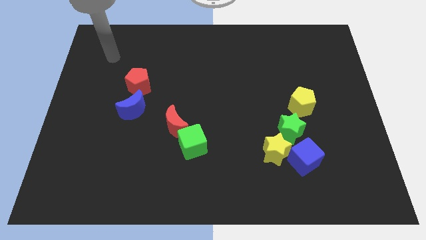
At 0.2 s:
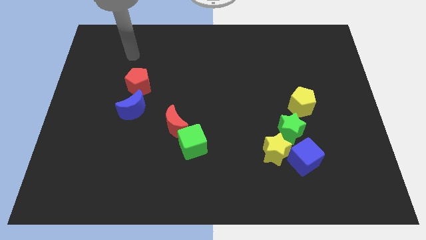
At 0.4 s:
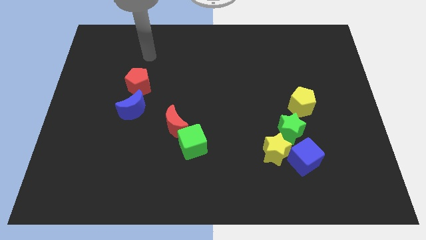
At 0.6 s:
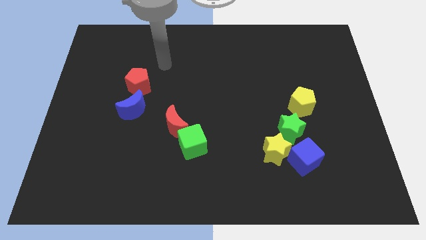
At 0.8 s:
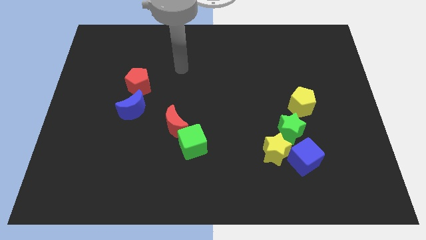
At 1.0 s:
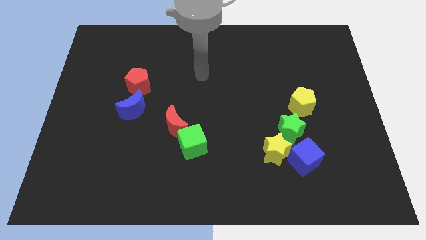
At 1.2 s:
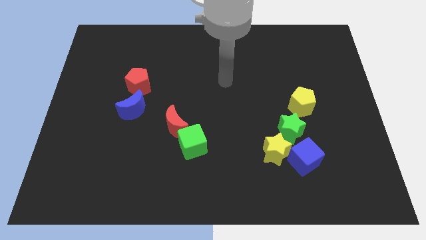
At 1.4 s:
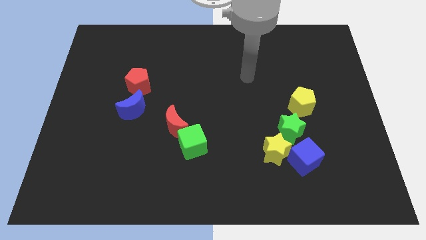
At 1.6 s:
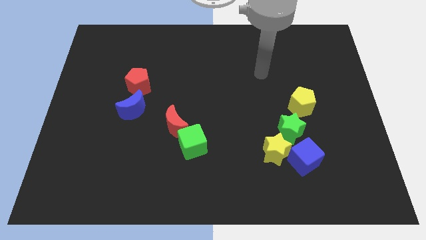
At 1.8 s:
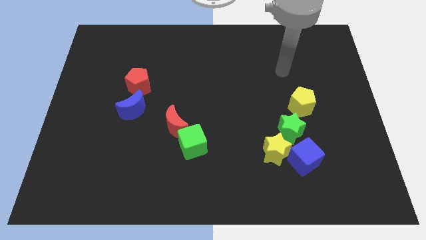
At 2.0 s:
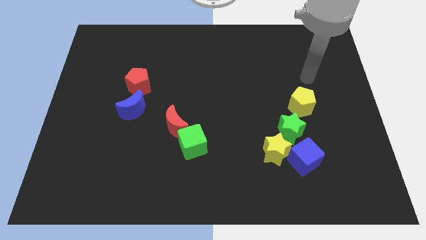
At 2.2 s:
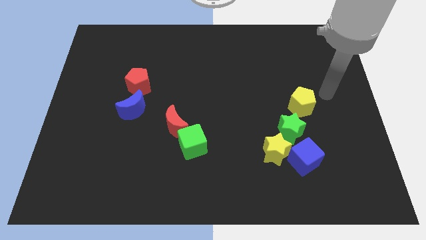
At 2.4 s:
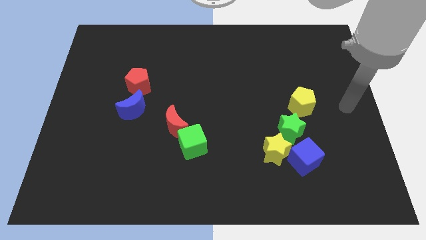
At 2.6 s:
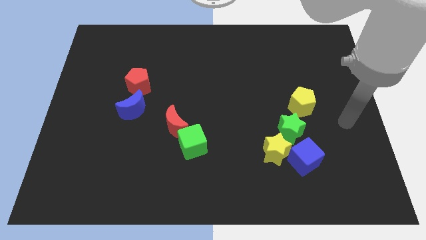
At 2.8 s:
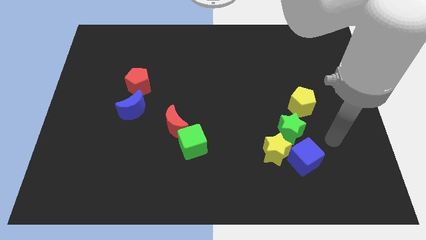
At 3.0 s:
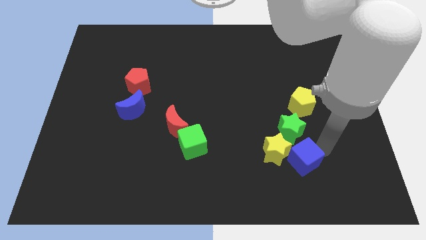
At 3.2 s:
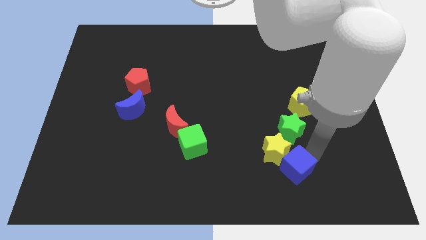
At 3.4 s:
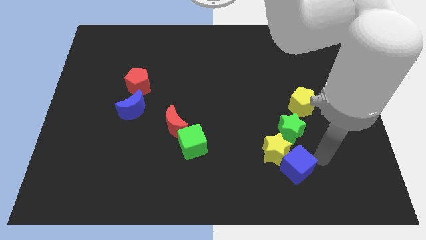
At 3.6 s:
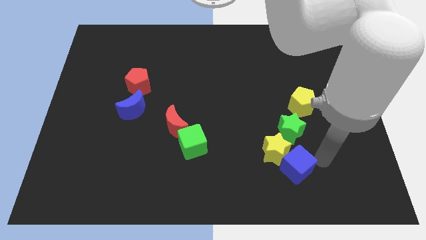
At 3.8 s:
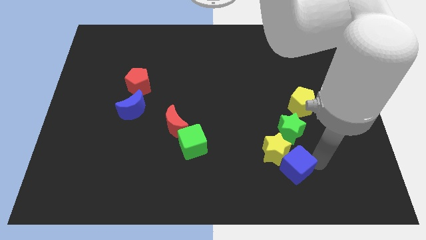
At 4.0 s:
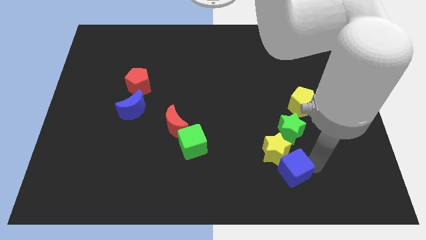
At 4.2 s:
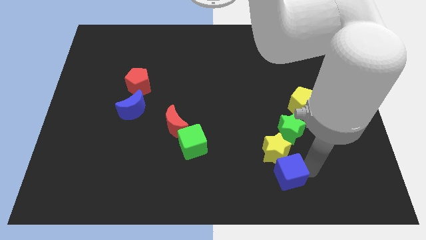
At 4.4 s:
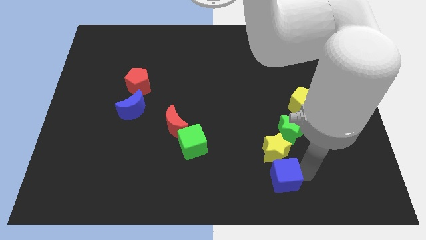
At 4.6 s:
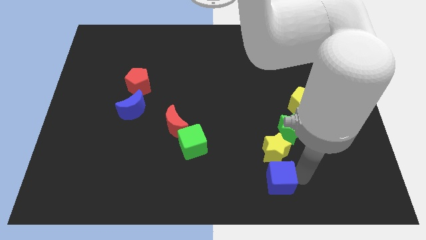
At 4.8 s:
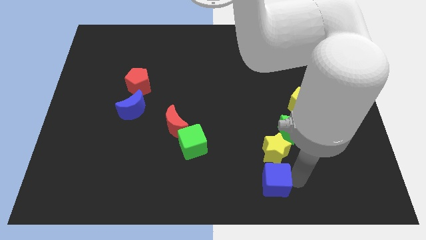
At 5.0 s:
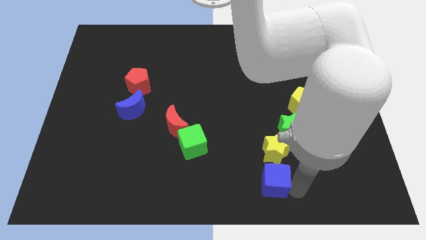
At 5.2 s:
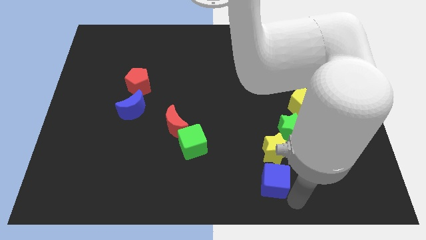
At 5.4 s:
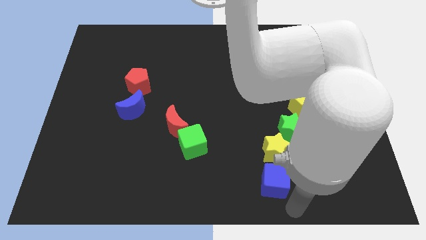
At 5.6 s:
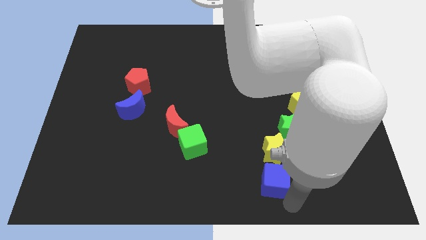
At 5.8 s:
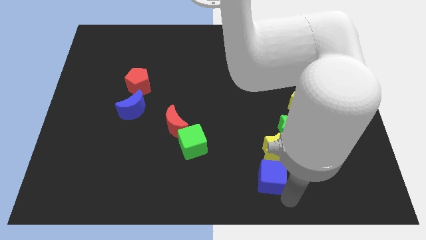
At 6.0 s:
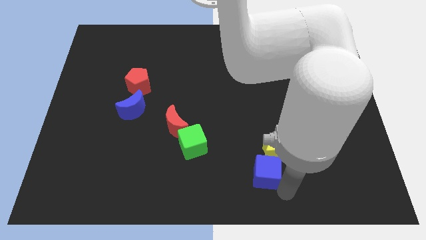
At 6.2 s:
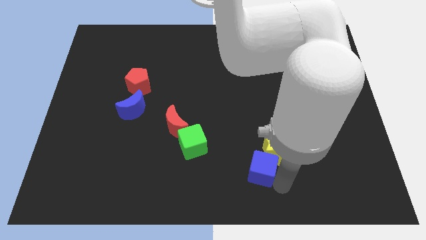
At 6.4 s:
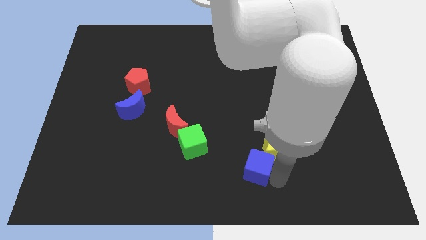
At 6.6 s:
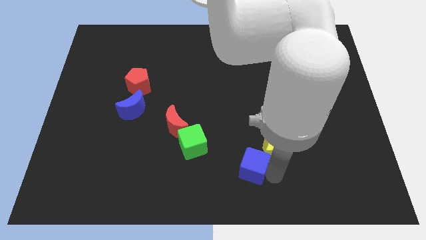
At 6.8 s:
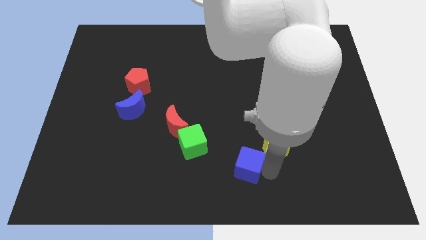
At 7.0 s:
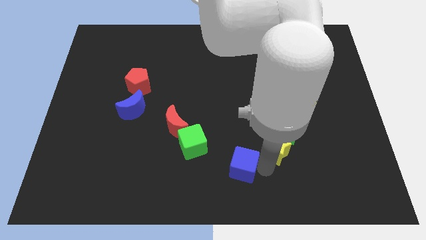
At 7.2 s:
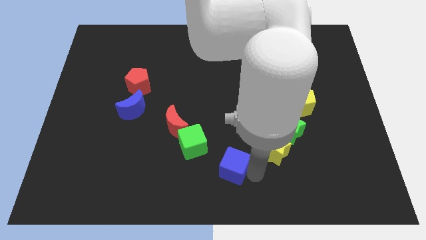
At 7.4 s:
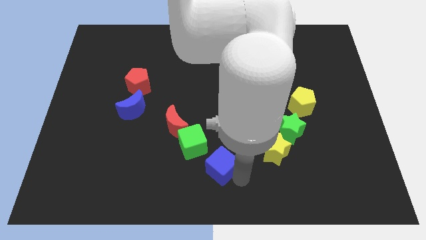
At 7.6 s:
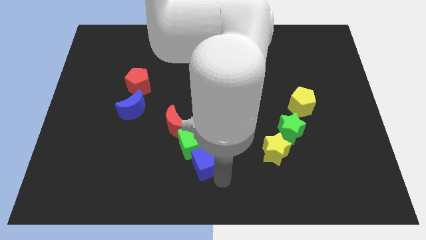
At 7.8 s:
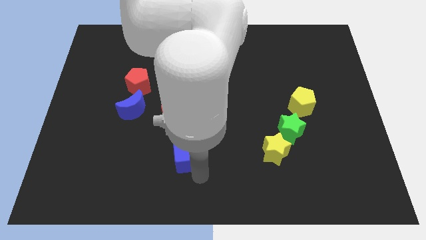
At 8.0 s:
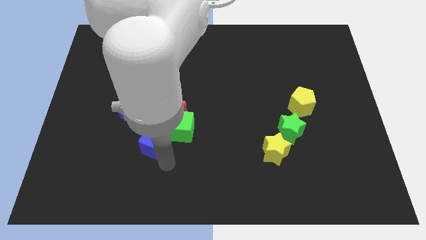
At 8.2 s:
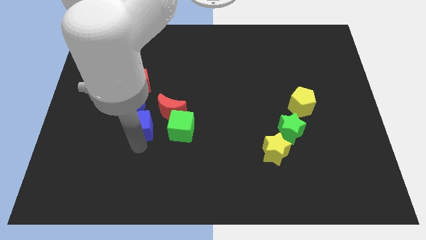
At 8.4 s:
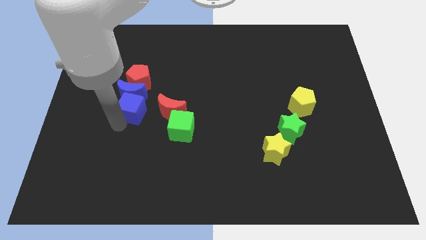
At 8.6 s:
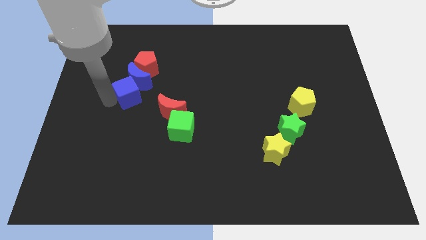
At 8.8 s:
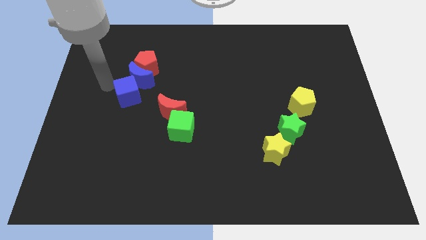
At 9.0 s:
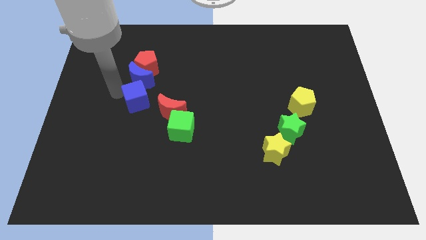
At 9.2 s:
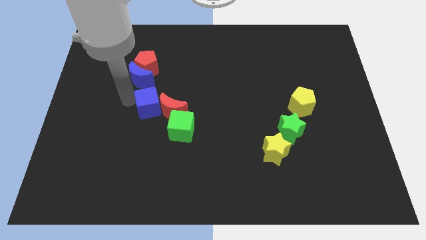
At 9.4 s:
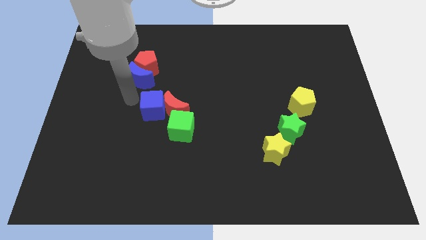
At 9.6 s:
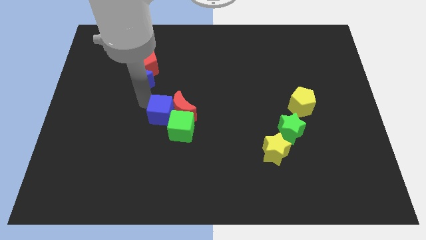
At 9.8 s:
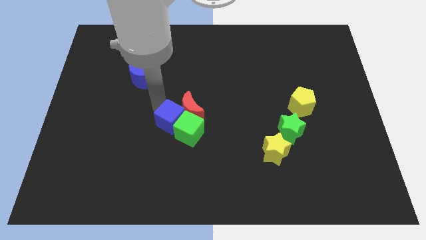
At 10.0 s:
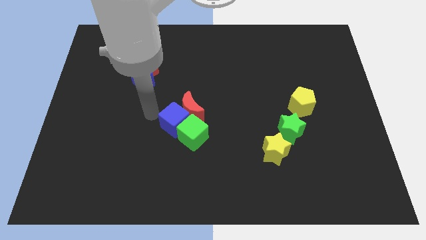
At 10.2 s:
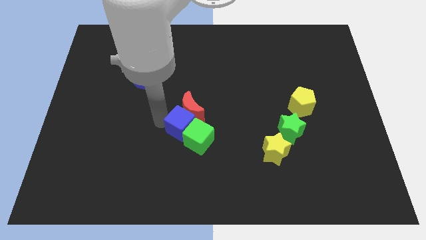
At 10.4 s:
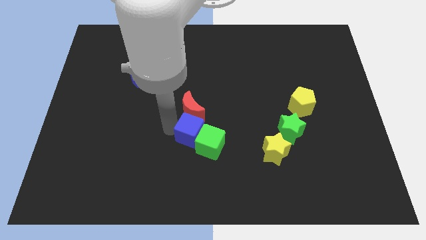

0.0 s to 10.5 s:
slide the blue cube a bit up and left diagonally

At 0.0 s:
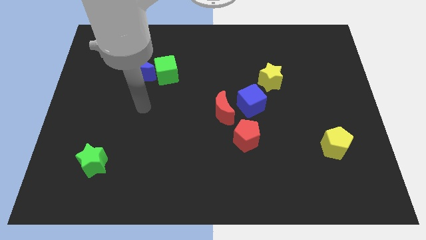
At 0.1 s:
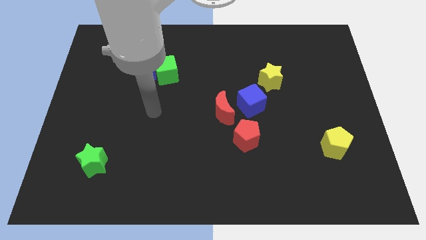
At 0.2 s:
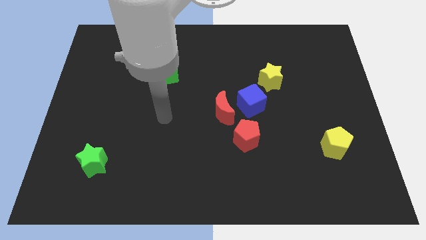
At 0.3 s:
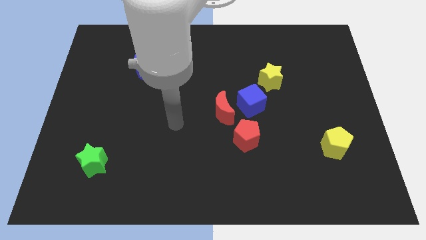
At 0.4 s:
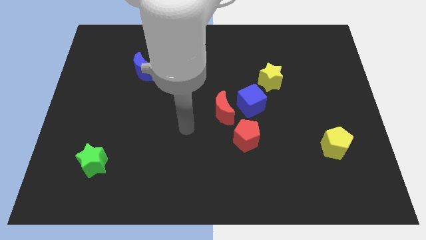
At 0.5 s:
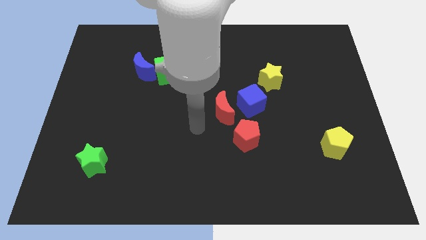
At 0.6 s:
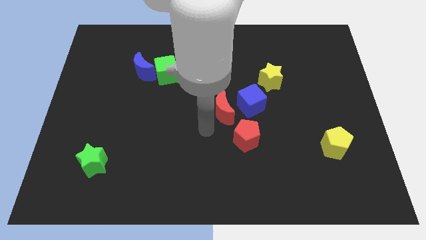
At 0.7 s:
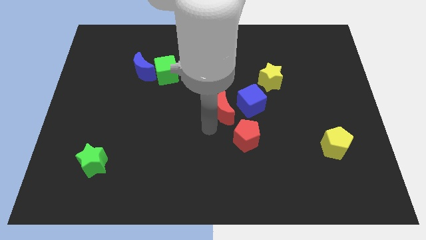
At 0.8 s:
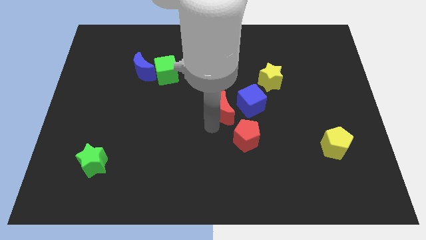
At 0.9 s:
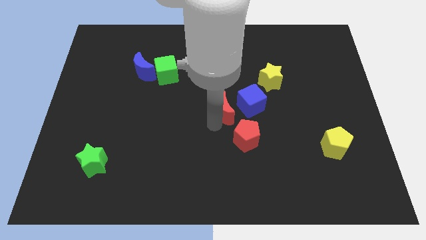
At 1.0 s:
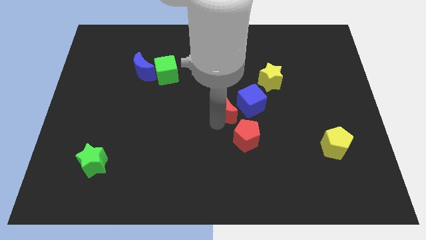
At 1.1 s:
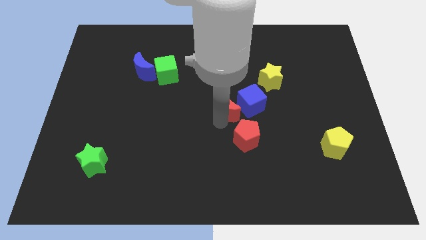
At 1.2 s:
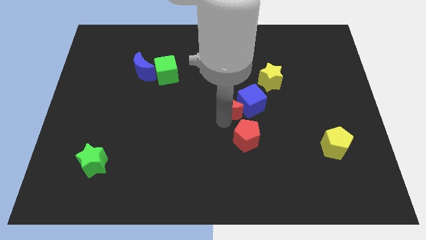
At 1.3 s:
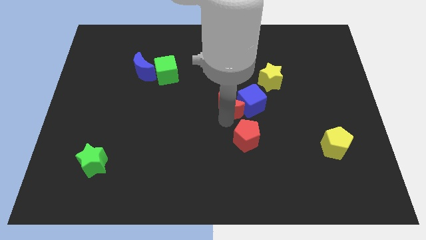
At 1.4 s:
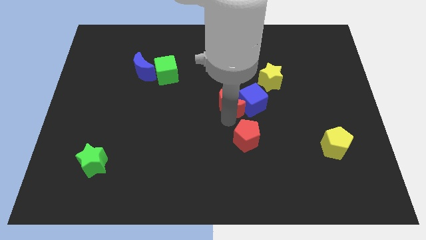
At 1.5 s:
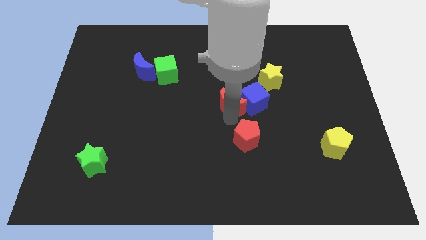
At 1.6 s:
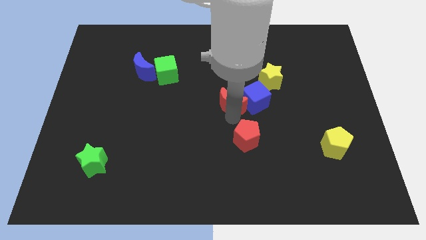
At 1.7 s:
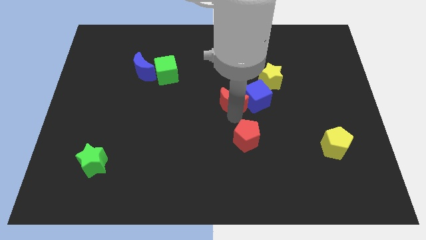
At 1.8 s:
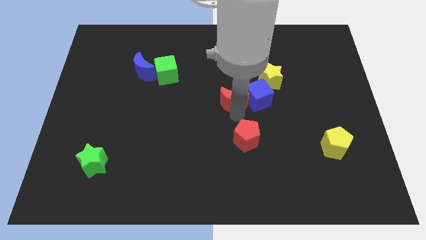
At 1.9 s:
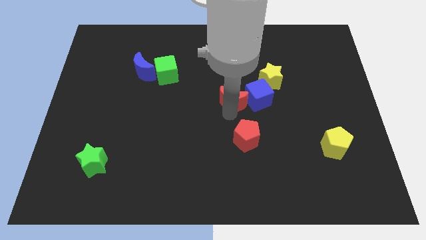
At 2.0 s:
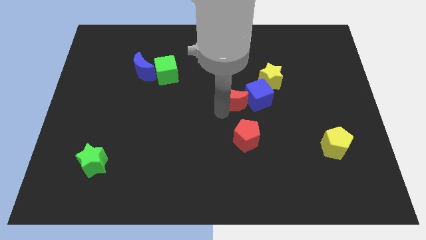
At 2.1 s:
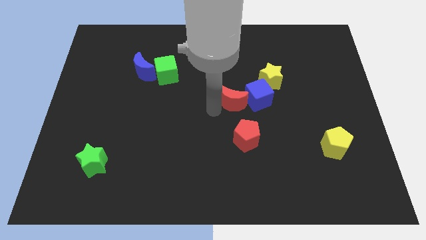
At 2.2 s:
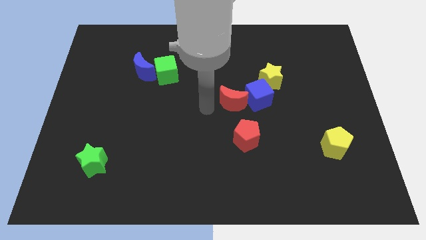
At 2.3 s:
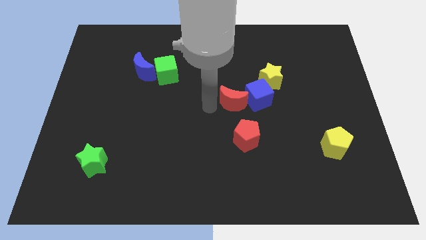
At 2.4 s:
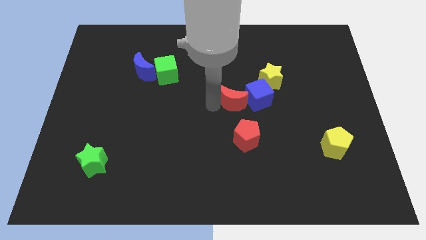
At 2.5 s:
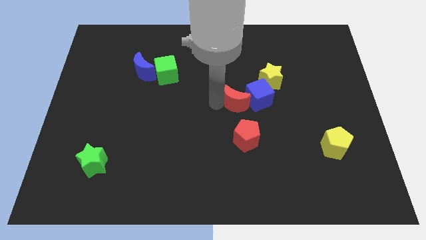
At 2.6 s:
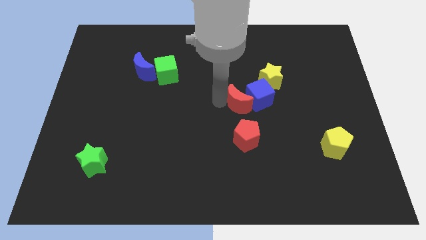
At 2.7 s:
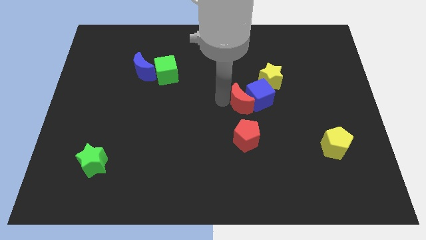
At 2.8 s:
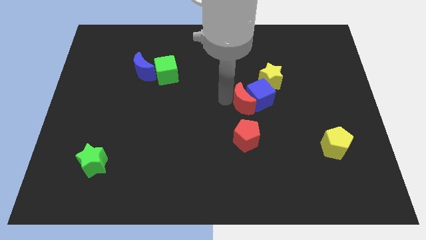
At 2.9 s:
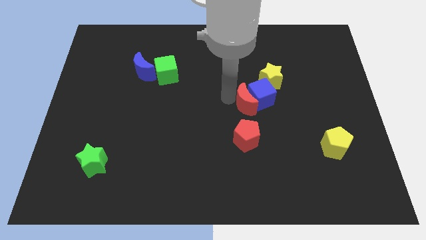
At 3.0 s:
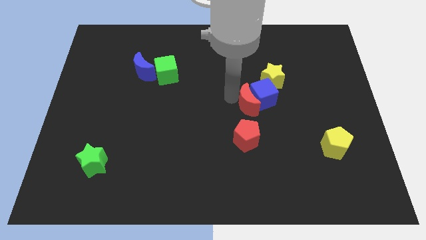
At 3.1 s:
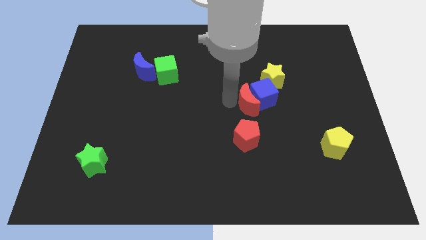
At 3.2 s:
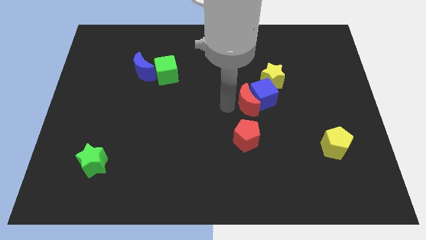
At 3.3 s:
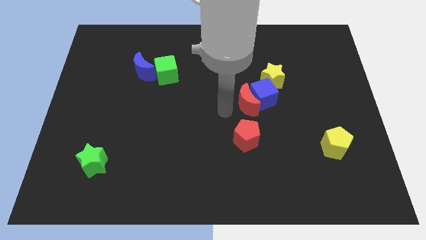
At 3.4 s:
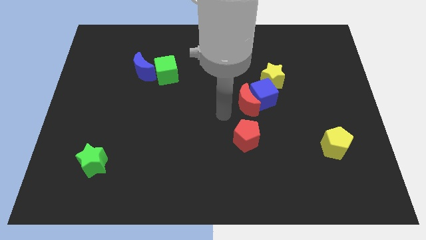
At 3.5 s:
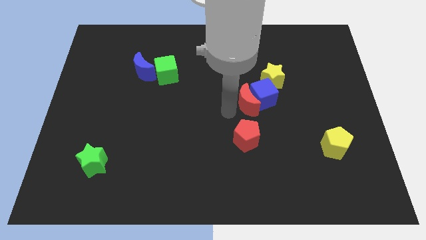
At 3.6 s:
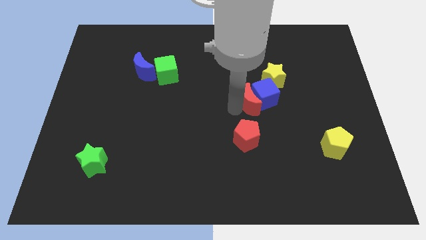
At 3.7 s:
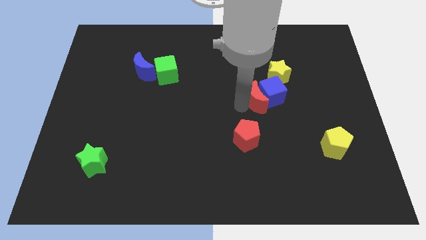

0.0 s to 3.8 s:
push the red moon right a little bit
